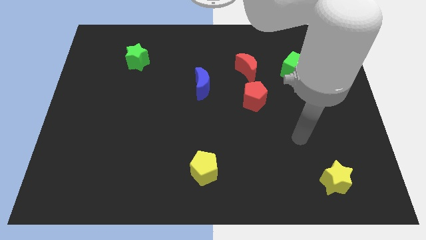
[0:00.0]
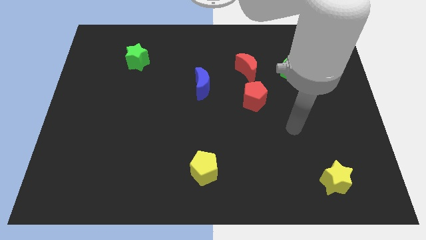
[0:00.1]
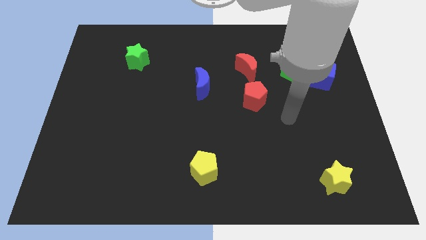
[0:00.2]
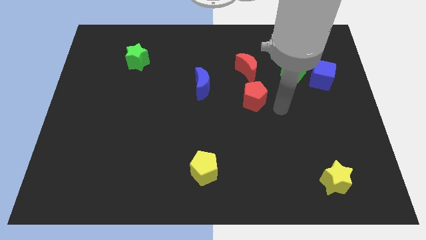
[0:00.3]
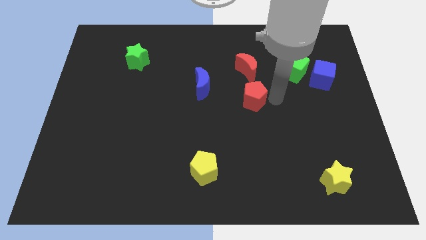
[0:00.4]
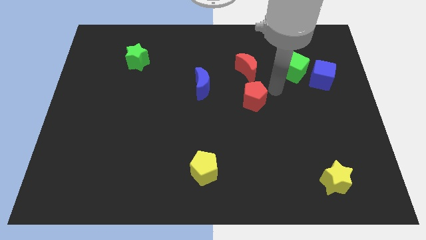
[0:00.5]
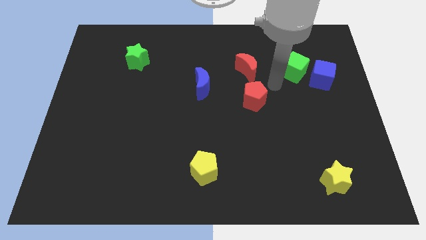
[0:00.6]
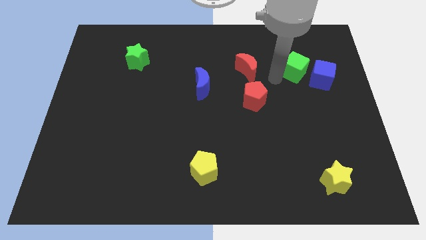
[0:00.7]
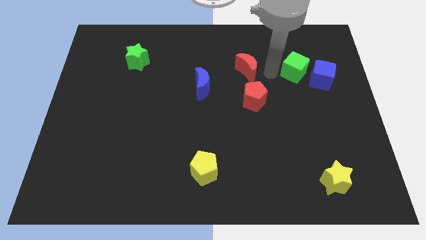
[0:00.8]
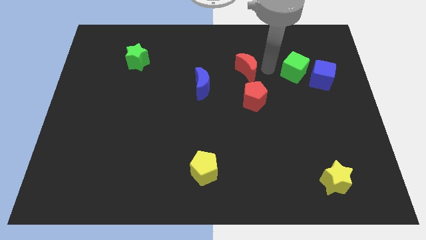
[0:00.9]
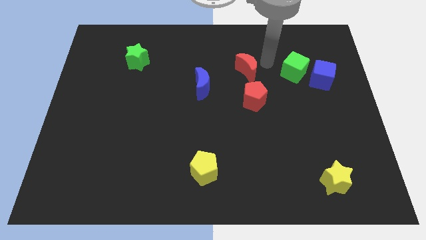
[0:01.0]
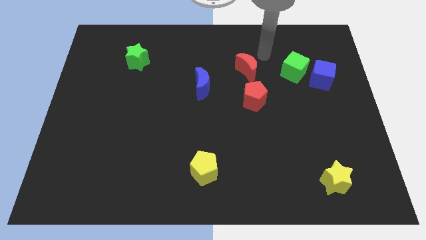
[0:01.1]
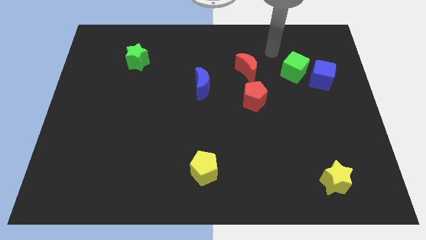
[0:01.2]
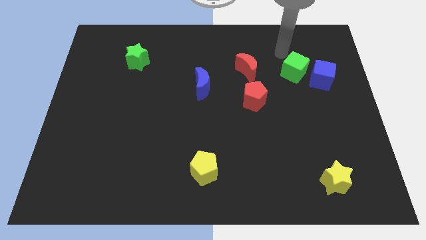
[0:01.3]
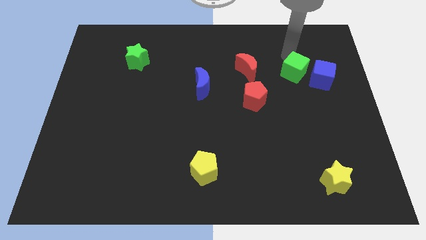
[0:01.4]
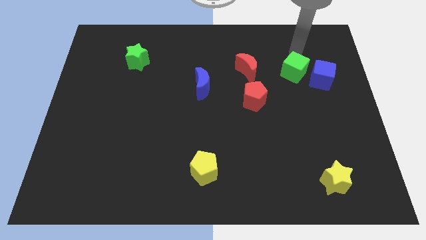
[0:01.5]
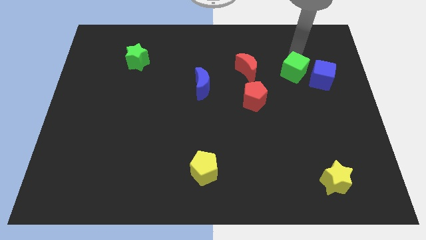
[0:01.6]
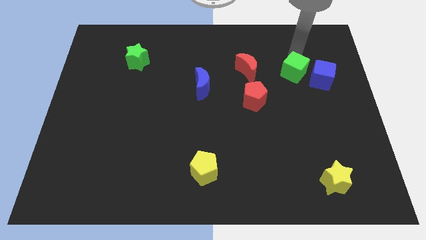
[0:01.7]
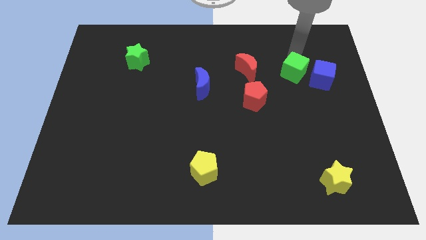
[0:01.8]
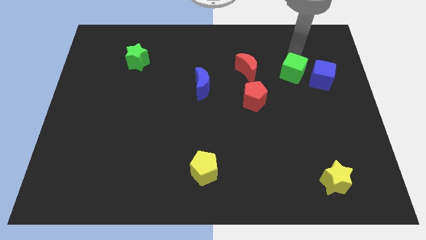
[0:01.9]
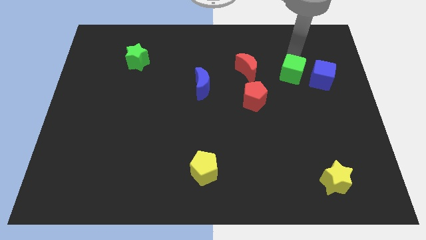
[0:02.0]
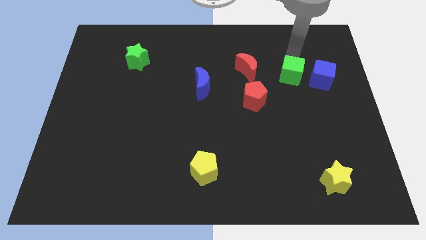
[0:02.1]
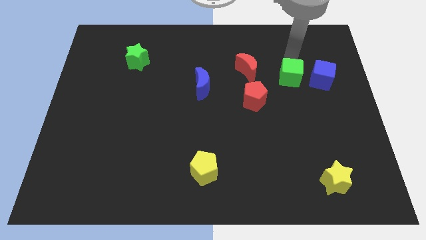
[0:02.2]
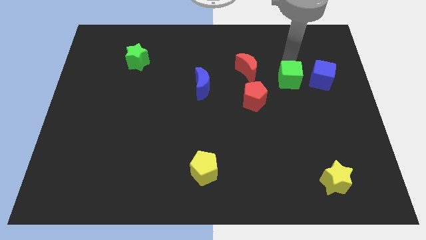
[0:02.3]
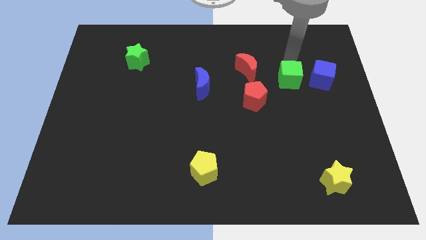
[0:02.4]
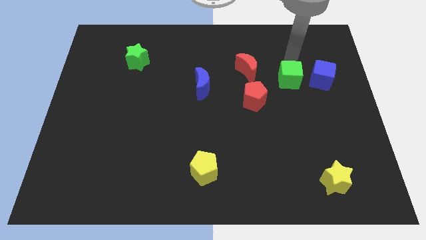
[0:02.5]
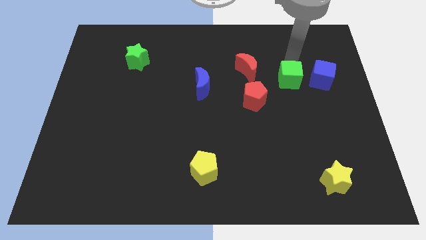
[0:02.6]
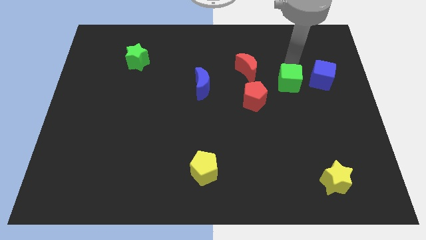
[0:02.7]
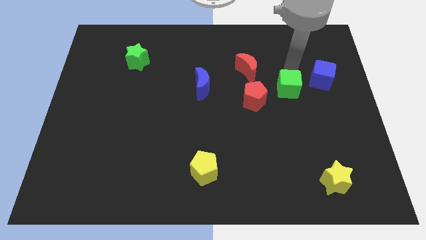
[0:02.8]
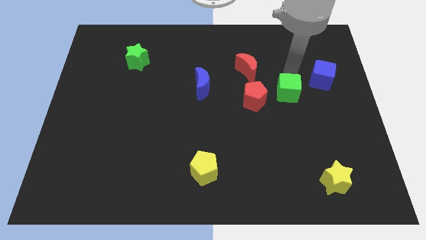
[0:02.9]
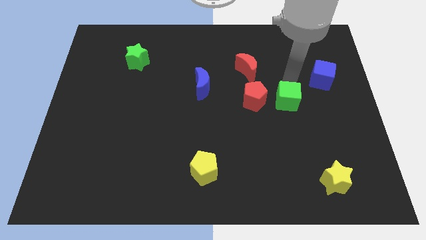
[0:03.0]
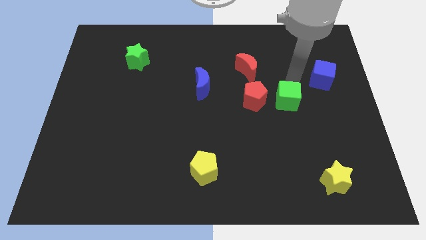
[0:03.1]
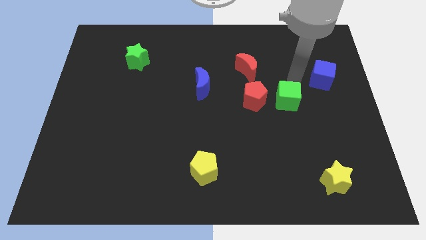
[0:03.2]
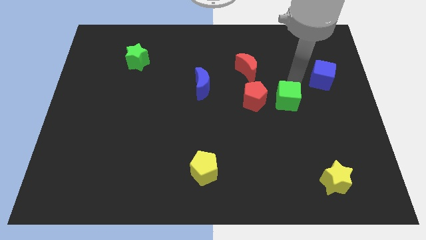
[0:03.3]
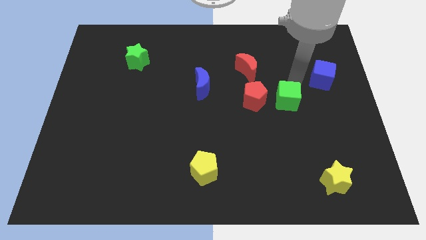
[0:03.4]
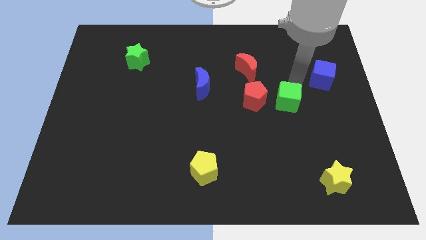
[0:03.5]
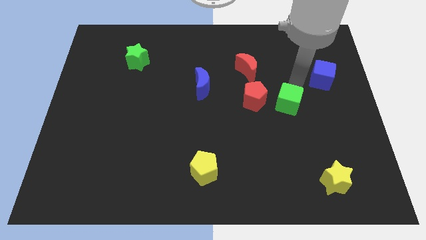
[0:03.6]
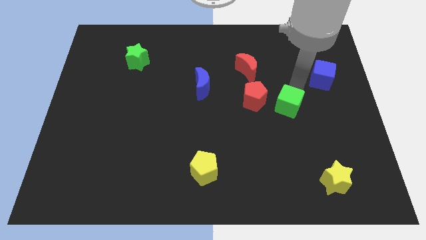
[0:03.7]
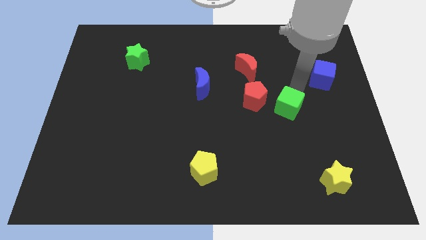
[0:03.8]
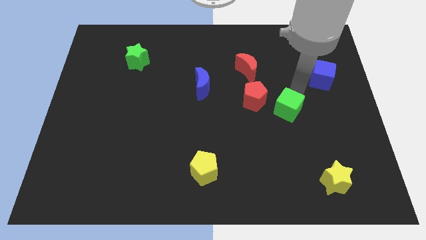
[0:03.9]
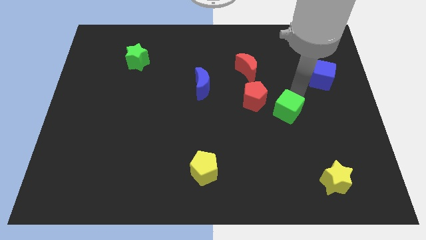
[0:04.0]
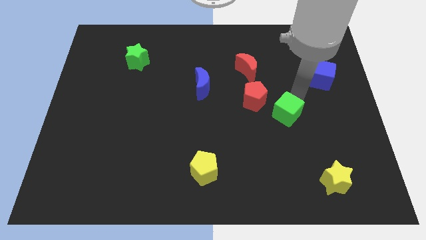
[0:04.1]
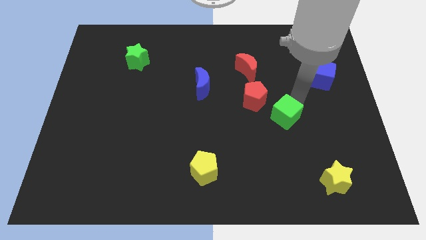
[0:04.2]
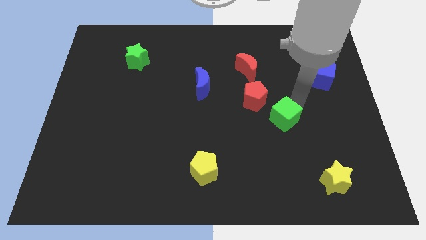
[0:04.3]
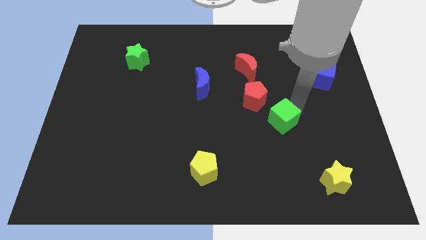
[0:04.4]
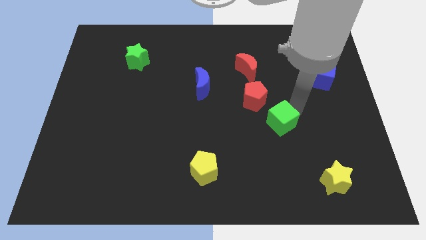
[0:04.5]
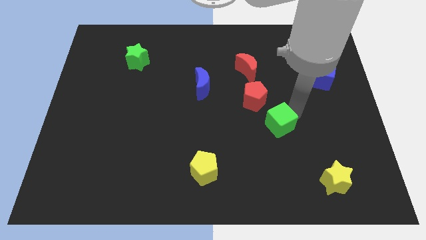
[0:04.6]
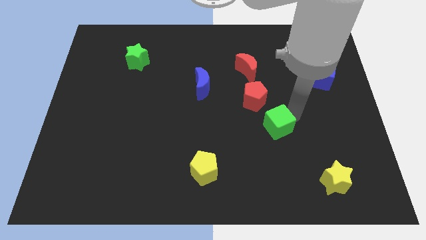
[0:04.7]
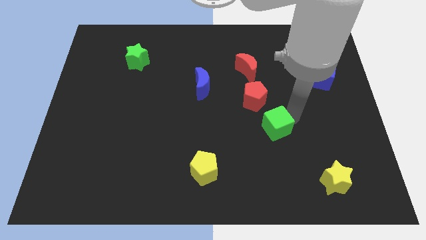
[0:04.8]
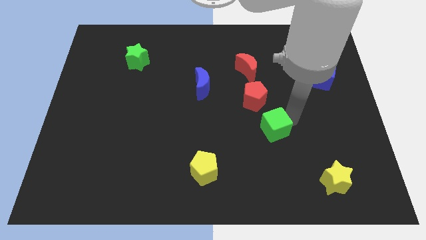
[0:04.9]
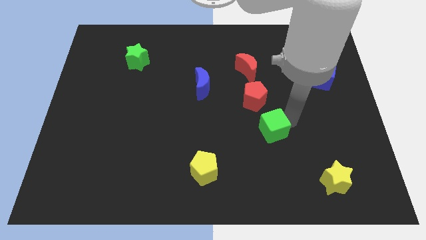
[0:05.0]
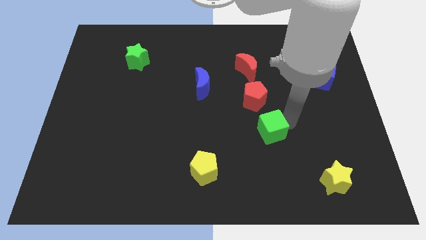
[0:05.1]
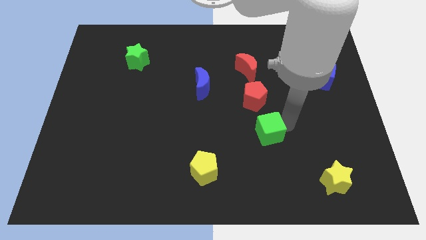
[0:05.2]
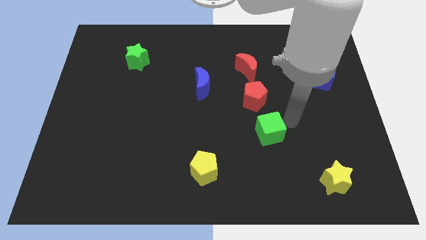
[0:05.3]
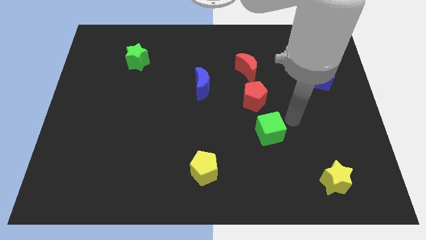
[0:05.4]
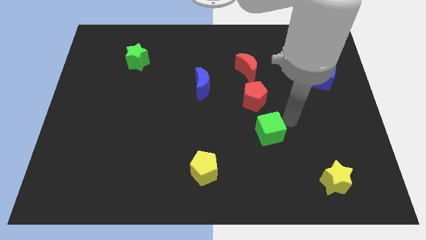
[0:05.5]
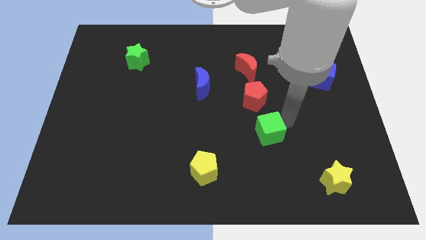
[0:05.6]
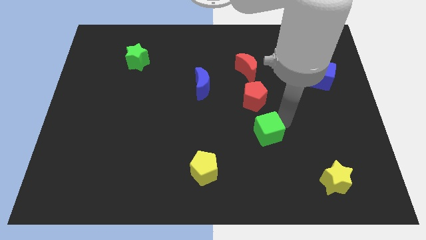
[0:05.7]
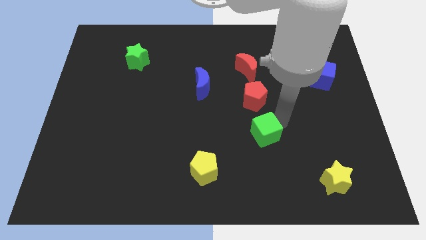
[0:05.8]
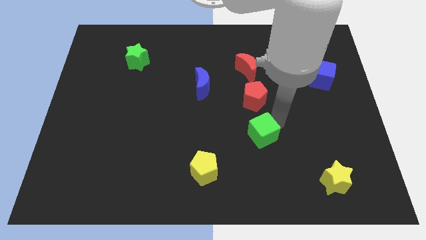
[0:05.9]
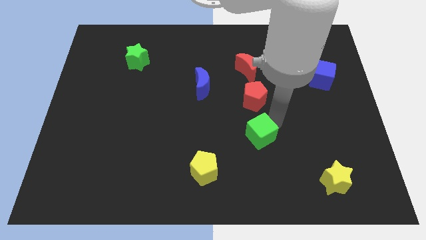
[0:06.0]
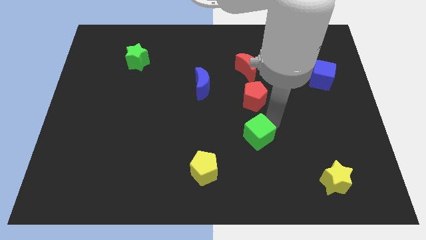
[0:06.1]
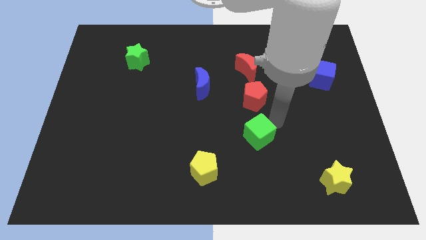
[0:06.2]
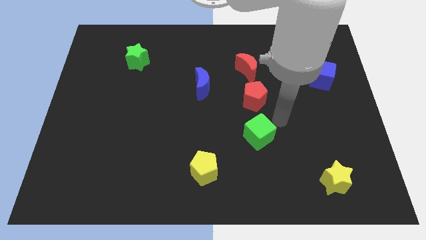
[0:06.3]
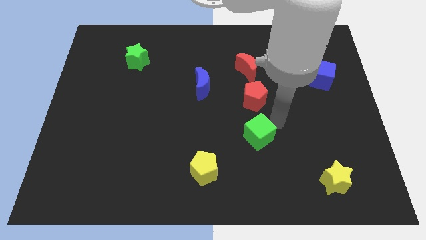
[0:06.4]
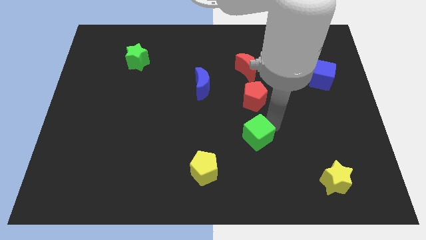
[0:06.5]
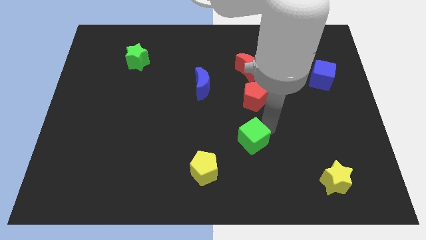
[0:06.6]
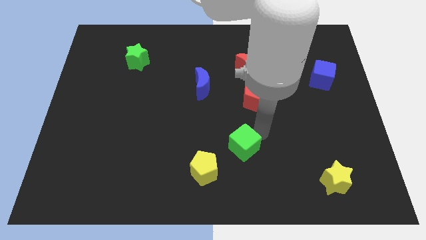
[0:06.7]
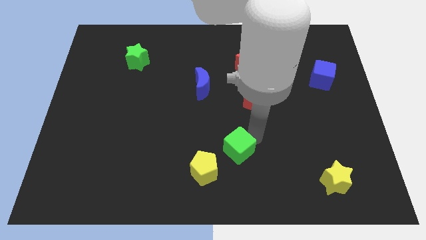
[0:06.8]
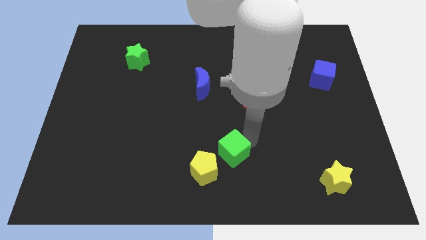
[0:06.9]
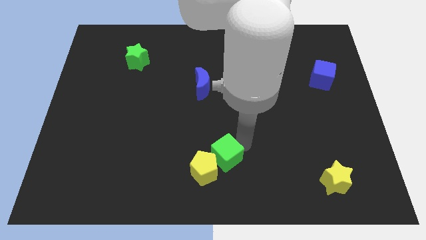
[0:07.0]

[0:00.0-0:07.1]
slide the green cube towards the yellow pentagon

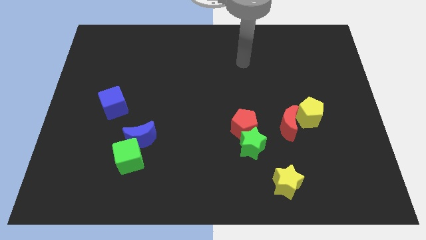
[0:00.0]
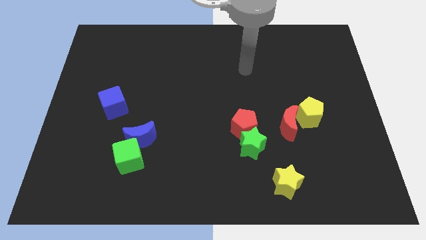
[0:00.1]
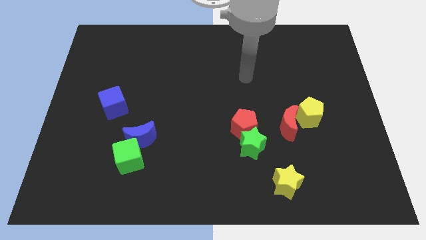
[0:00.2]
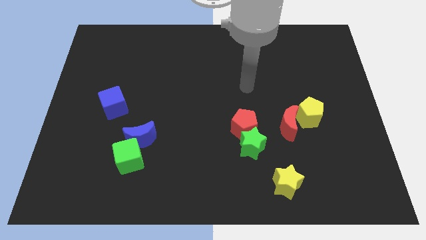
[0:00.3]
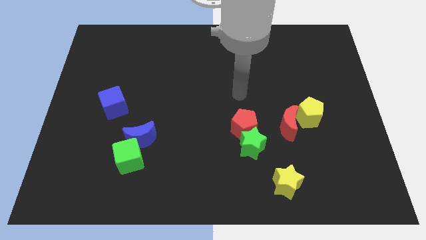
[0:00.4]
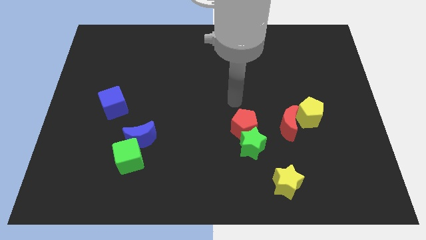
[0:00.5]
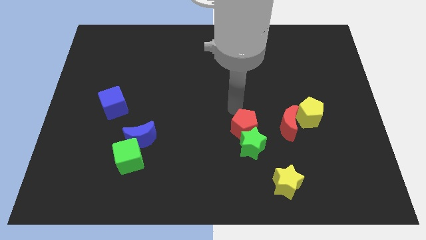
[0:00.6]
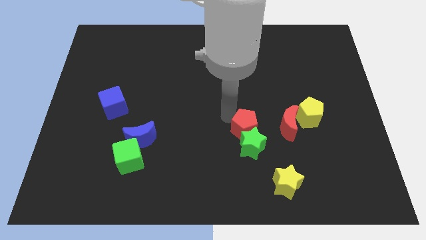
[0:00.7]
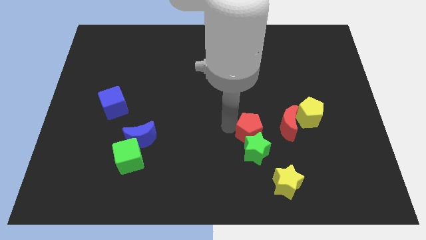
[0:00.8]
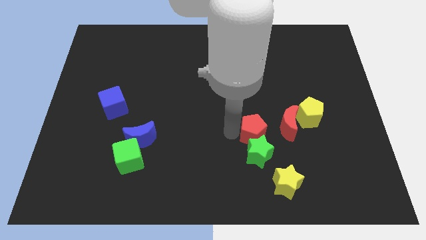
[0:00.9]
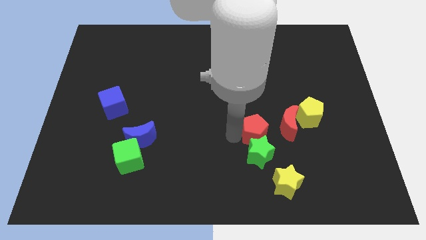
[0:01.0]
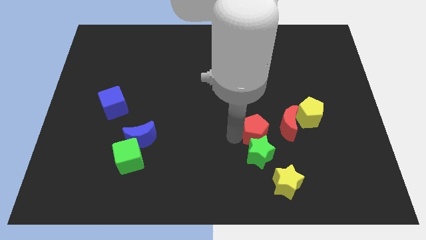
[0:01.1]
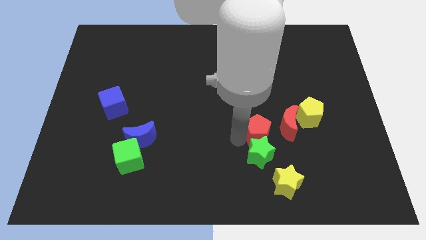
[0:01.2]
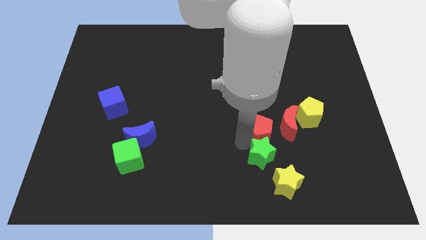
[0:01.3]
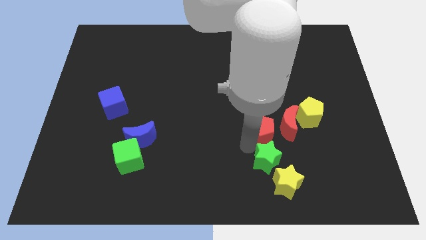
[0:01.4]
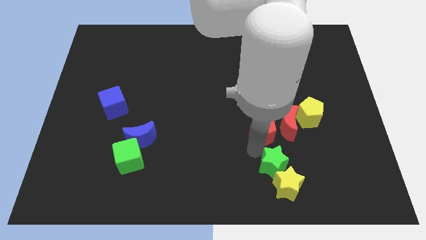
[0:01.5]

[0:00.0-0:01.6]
move the green star towards the yellow star
